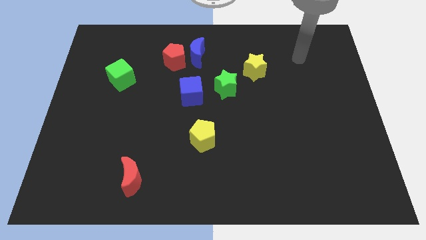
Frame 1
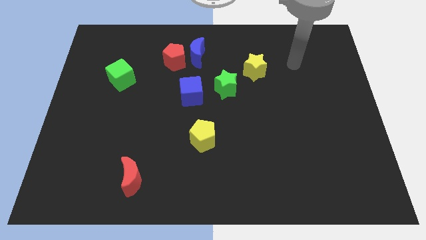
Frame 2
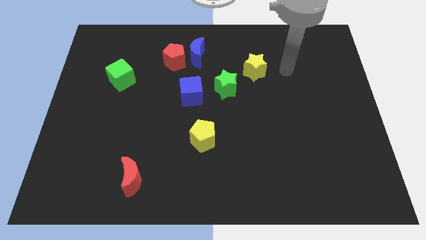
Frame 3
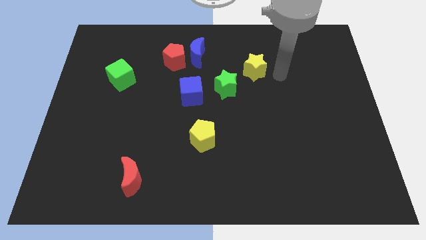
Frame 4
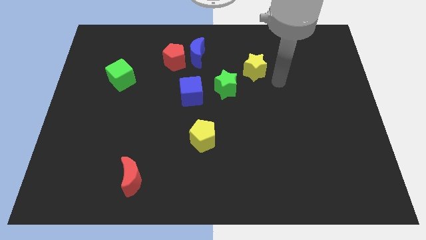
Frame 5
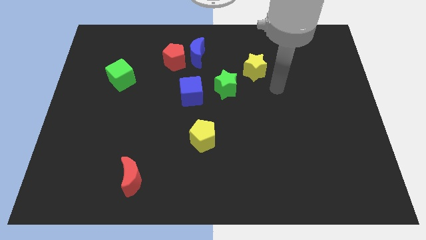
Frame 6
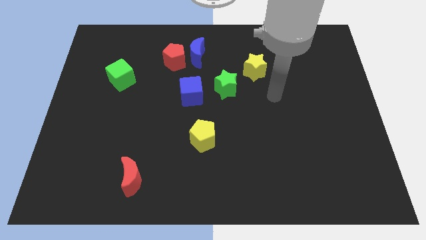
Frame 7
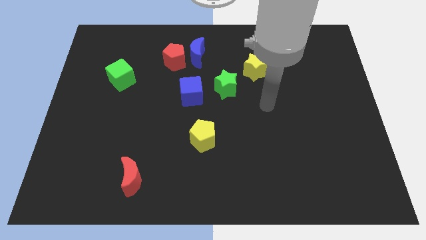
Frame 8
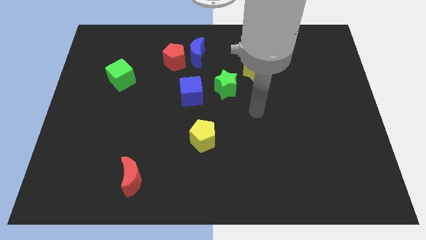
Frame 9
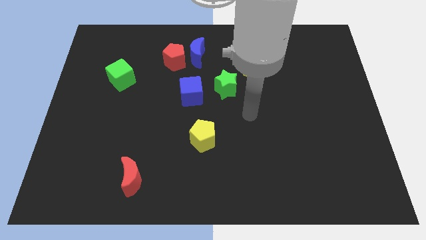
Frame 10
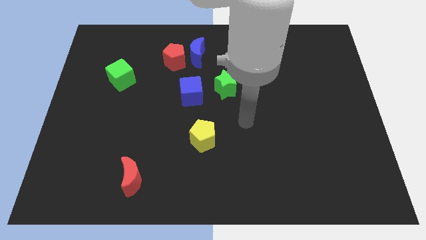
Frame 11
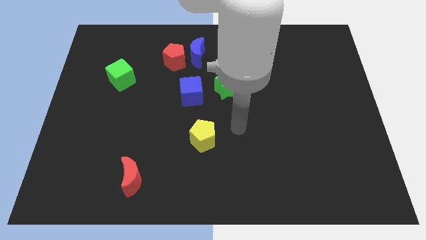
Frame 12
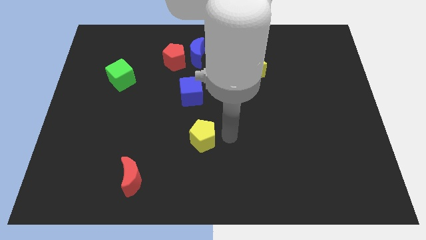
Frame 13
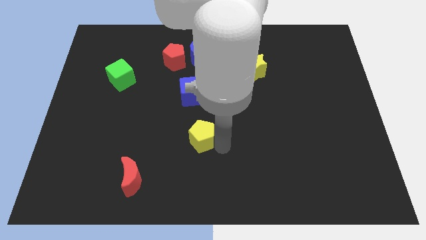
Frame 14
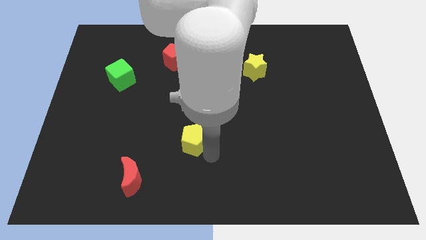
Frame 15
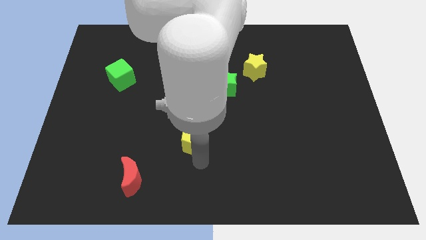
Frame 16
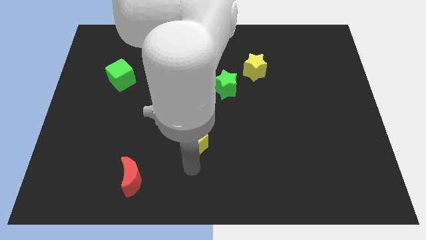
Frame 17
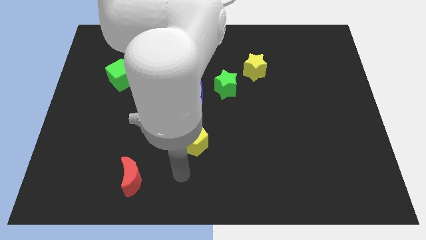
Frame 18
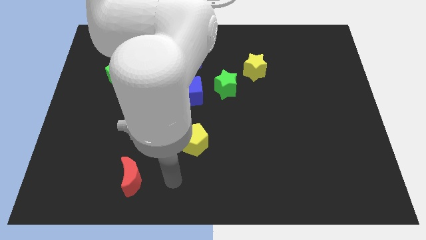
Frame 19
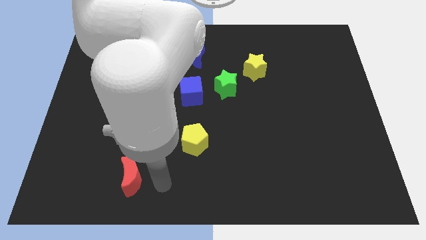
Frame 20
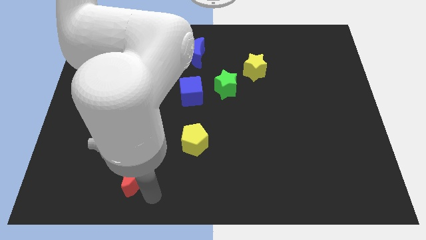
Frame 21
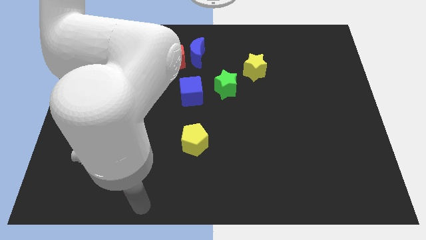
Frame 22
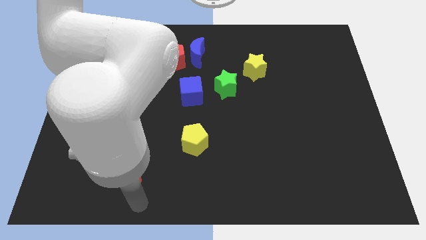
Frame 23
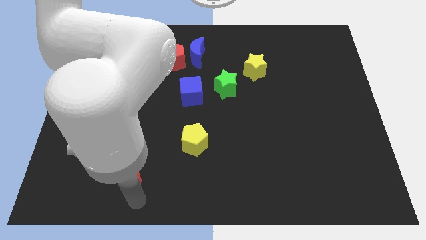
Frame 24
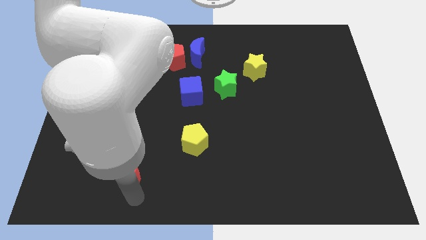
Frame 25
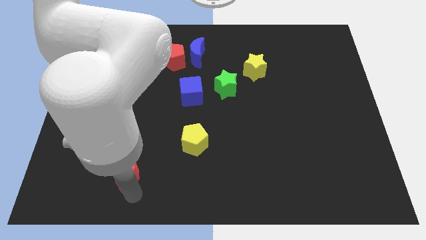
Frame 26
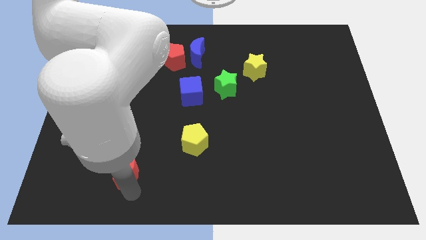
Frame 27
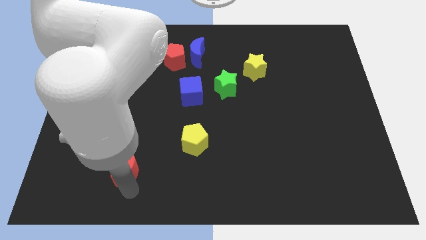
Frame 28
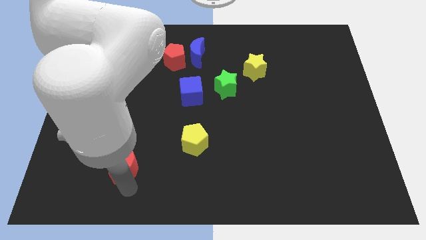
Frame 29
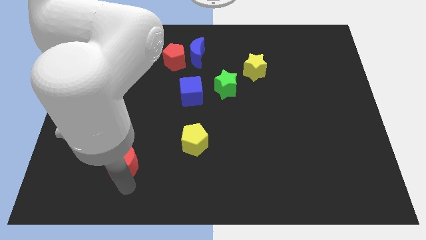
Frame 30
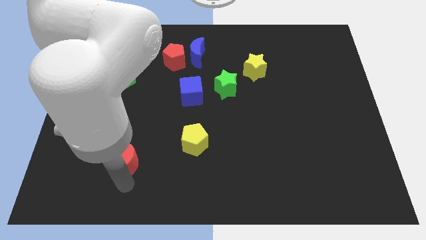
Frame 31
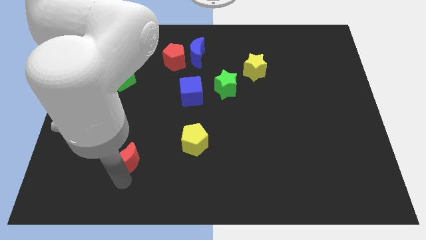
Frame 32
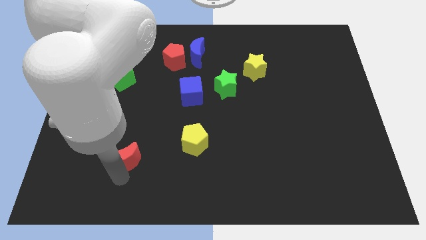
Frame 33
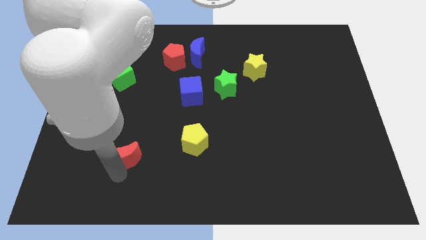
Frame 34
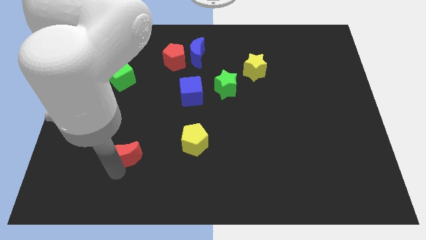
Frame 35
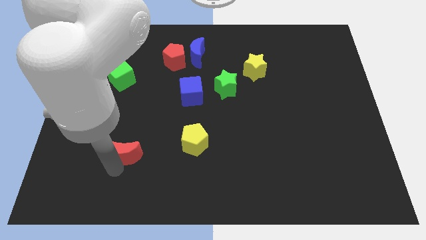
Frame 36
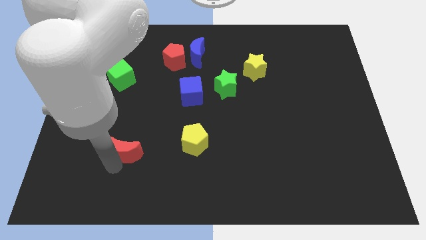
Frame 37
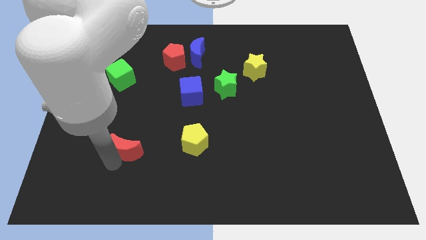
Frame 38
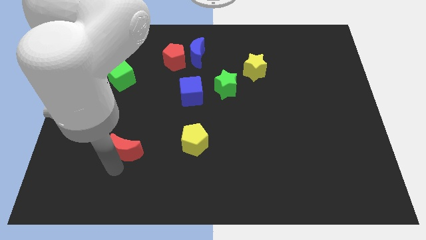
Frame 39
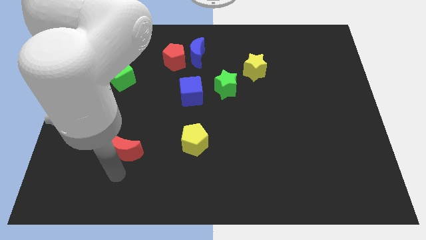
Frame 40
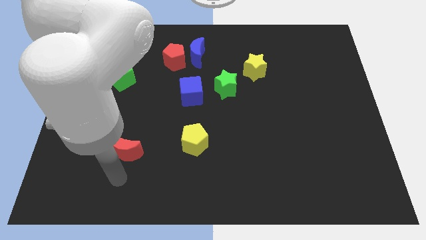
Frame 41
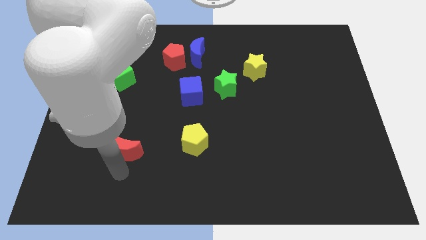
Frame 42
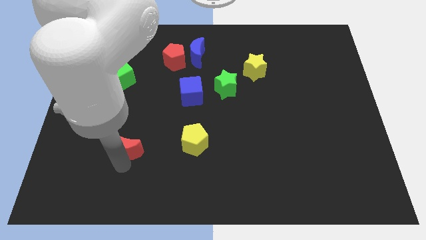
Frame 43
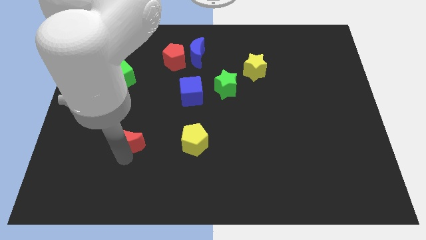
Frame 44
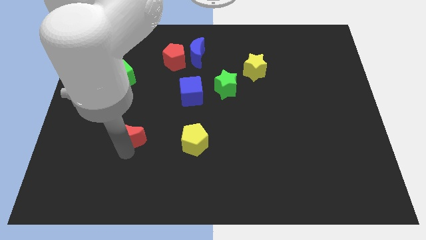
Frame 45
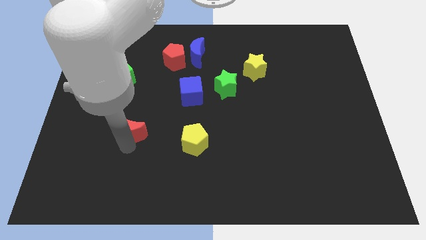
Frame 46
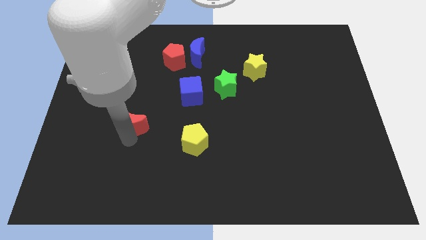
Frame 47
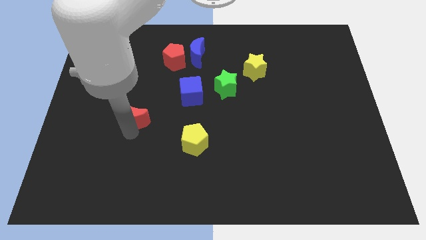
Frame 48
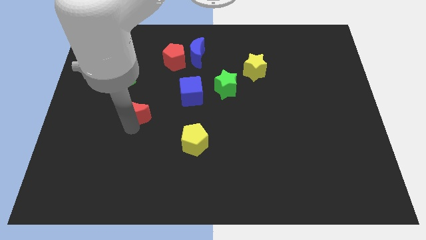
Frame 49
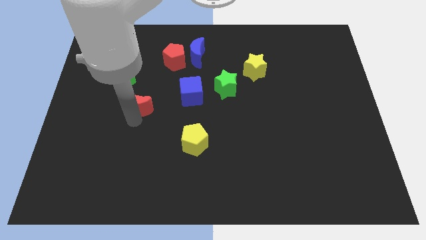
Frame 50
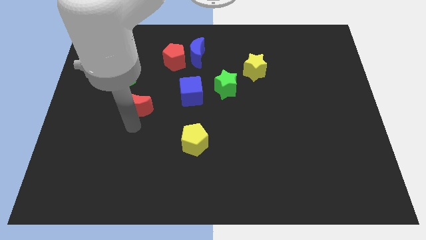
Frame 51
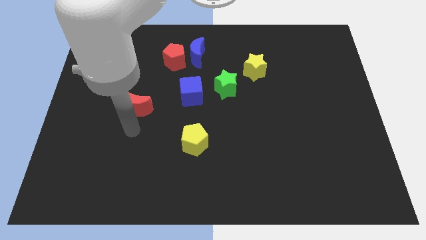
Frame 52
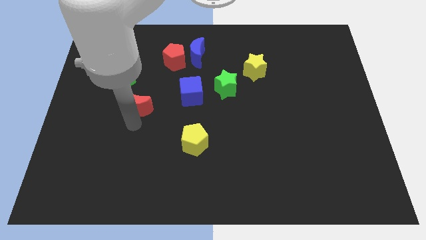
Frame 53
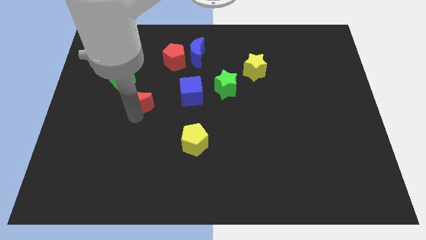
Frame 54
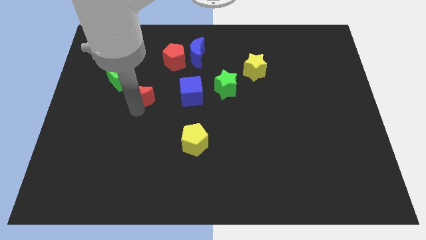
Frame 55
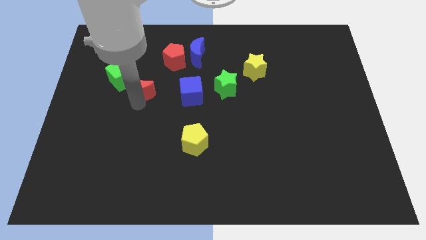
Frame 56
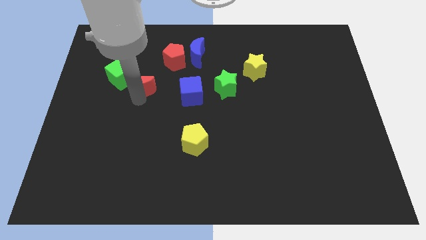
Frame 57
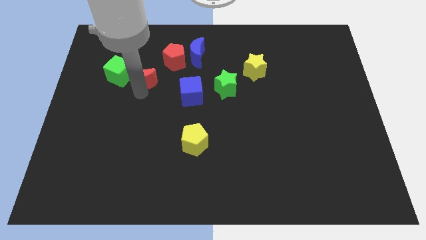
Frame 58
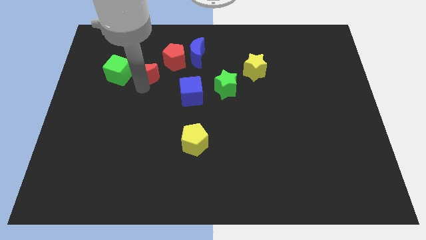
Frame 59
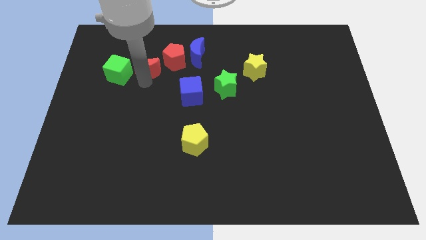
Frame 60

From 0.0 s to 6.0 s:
move the red moon diagonally up and to the right of the green cube

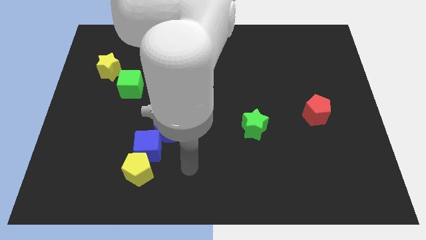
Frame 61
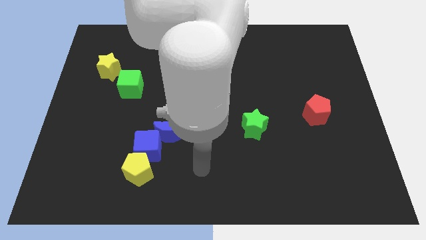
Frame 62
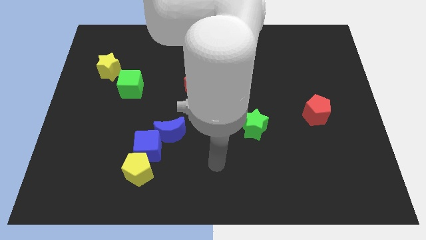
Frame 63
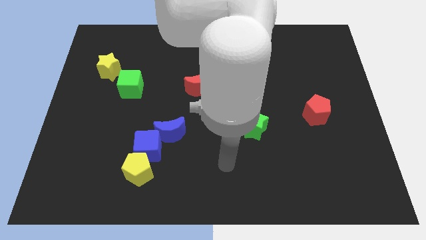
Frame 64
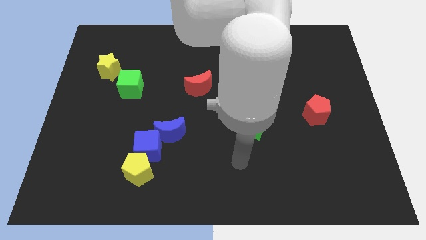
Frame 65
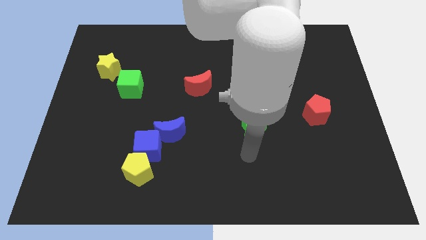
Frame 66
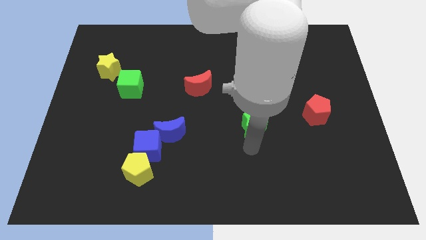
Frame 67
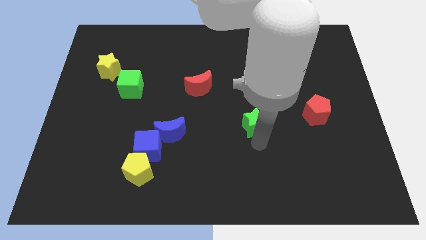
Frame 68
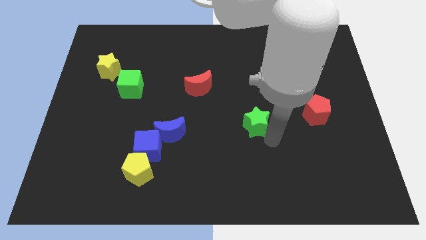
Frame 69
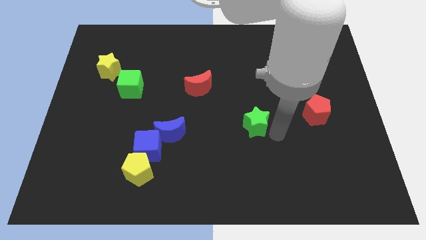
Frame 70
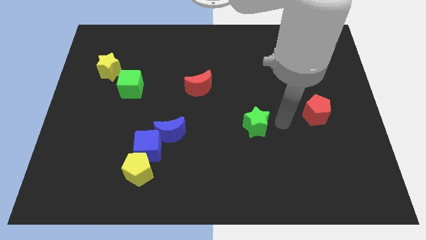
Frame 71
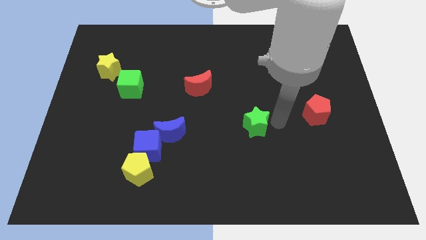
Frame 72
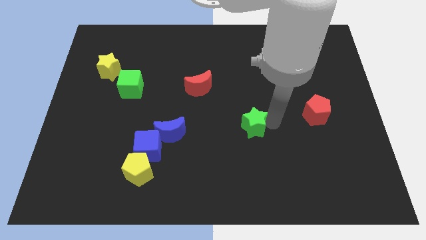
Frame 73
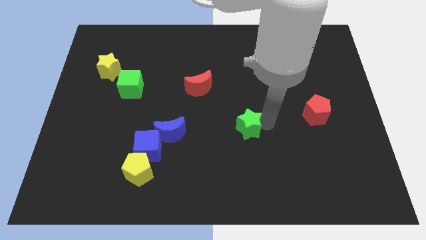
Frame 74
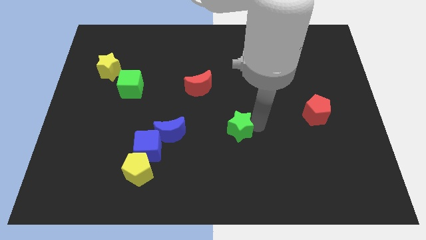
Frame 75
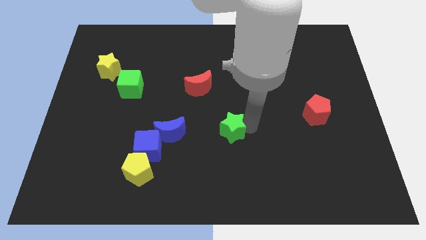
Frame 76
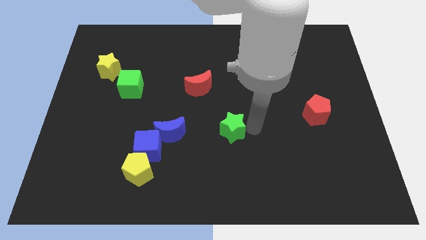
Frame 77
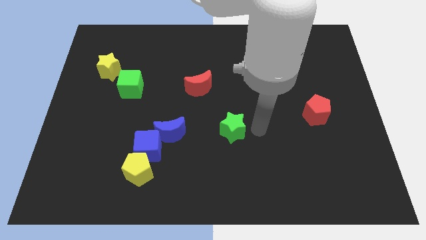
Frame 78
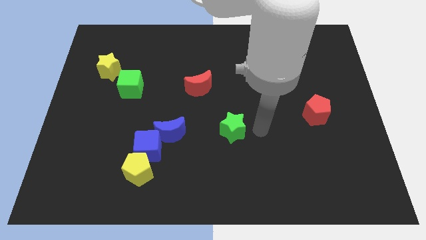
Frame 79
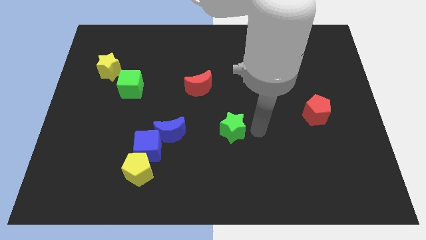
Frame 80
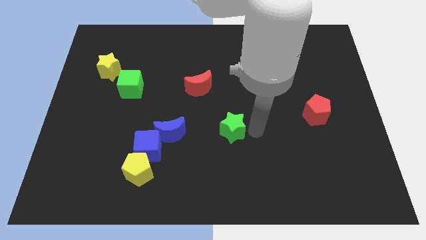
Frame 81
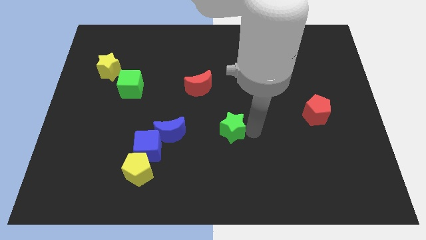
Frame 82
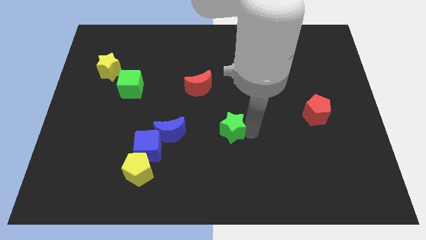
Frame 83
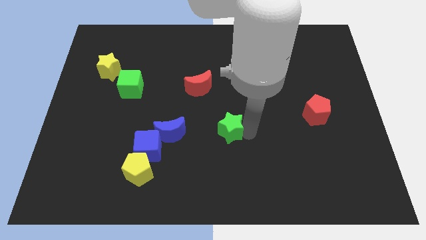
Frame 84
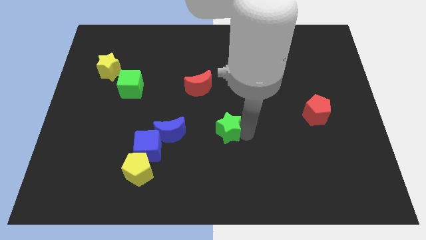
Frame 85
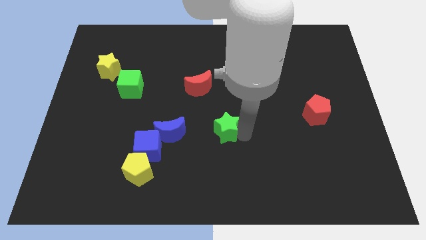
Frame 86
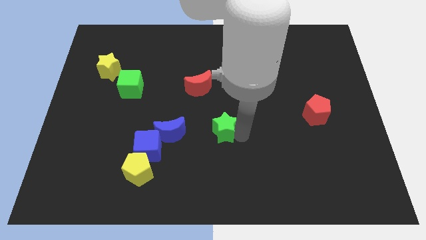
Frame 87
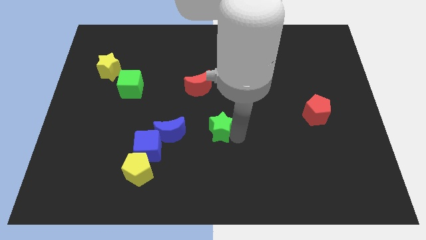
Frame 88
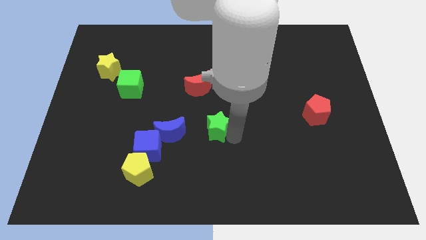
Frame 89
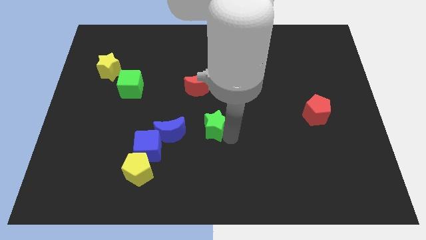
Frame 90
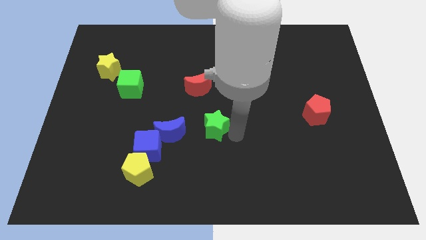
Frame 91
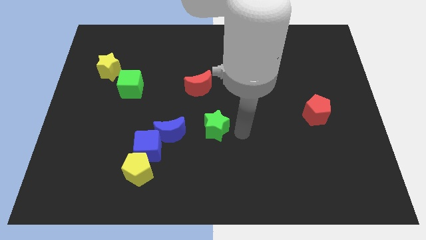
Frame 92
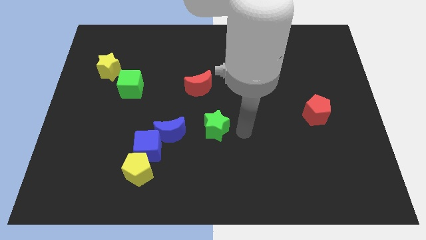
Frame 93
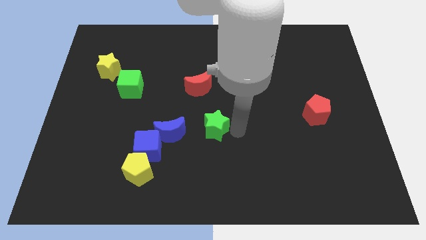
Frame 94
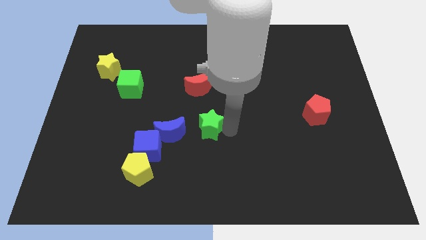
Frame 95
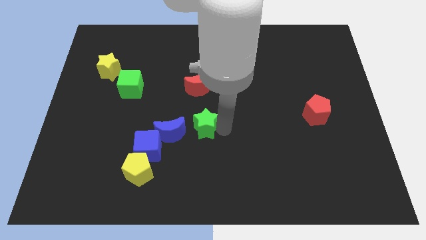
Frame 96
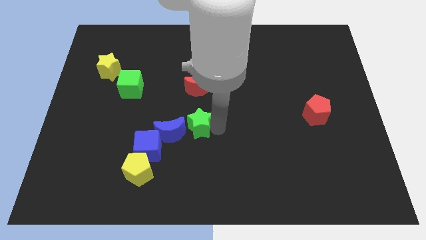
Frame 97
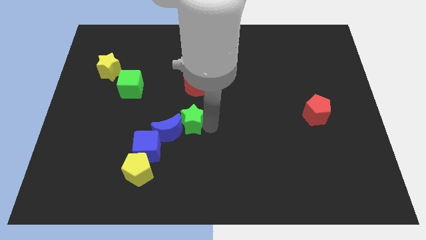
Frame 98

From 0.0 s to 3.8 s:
put the green star to the top right side of the blue cube
